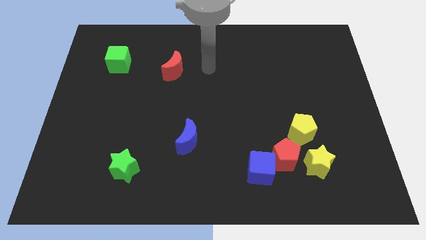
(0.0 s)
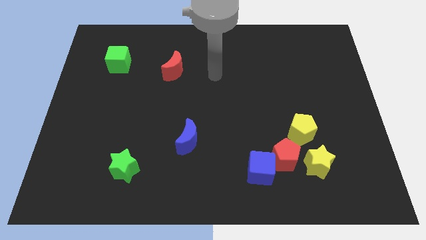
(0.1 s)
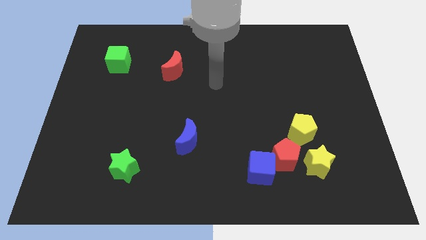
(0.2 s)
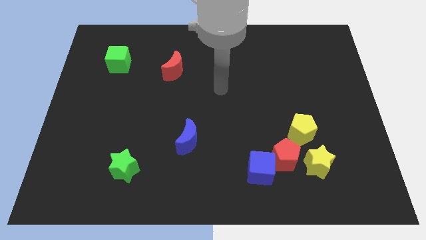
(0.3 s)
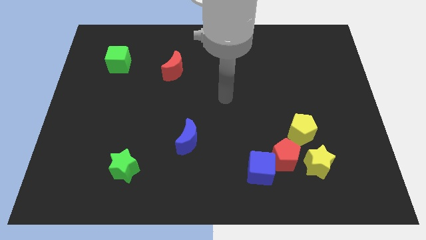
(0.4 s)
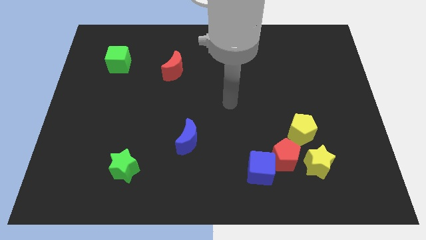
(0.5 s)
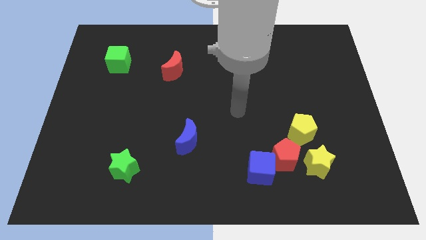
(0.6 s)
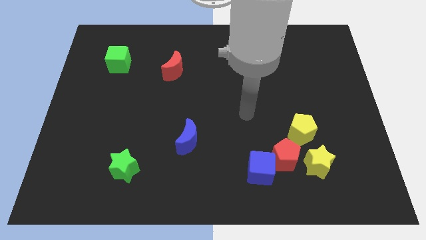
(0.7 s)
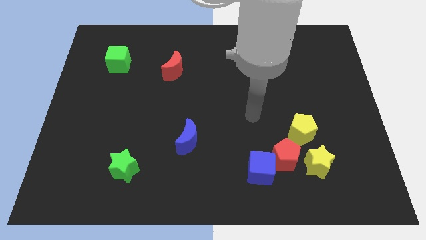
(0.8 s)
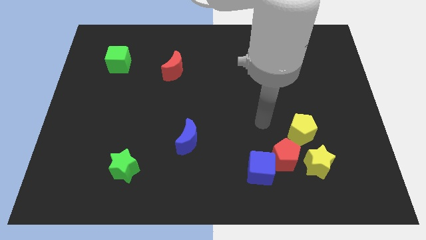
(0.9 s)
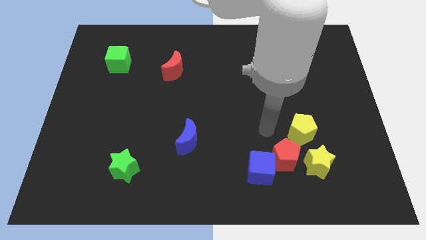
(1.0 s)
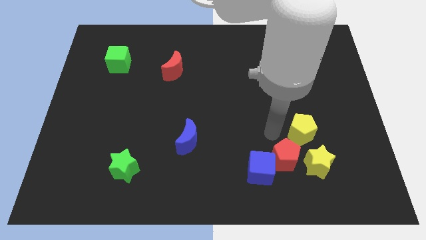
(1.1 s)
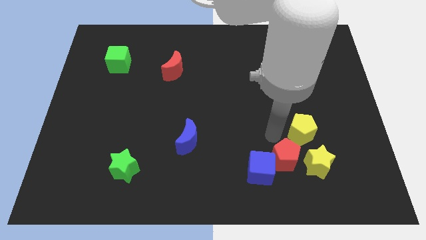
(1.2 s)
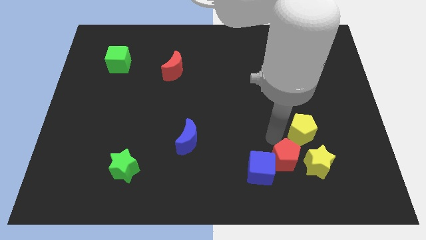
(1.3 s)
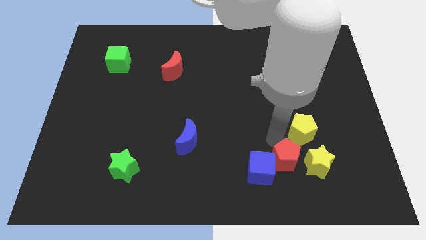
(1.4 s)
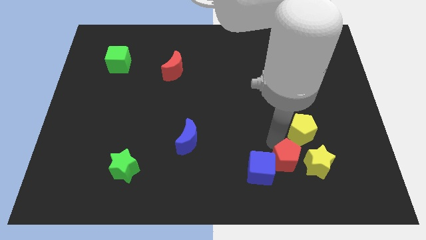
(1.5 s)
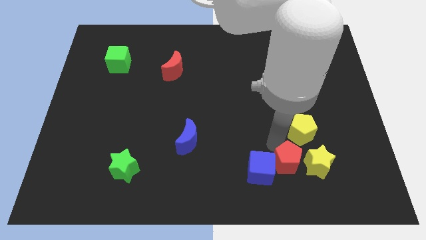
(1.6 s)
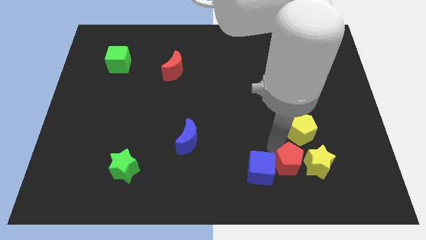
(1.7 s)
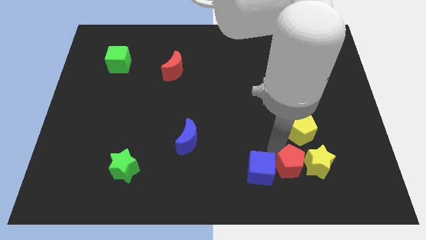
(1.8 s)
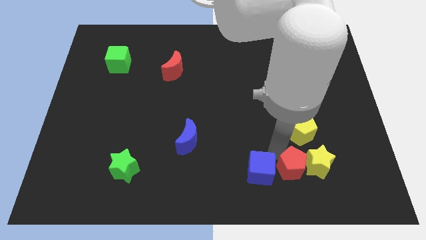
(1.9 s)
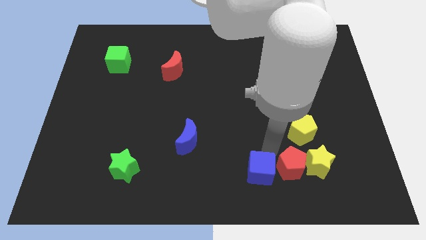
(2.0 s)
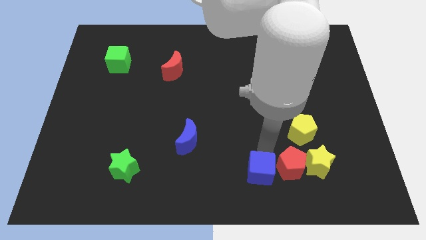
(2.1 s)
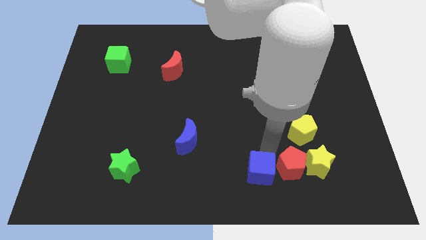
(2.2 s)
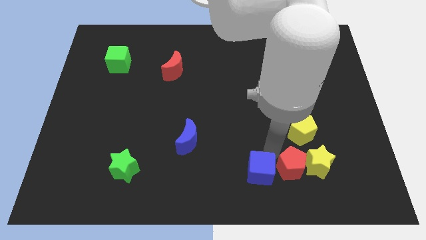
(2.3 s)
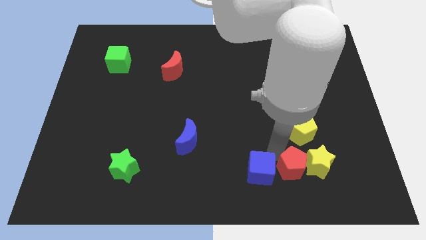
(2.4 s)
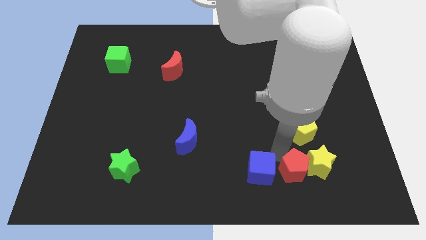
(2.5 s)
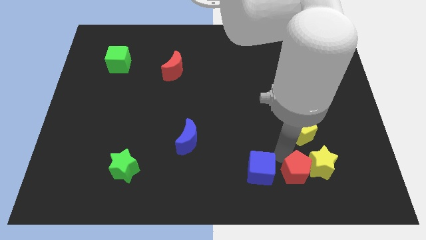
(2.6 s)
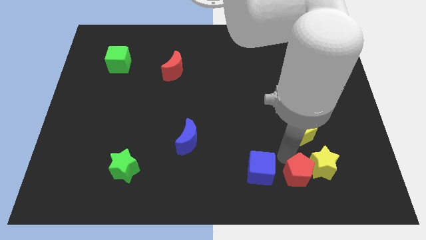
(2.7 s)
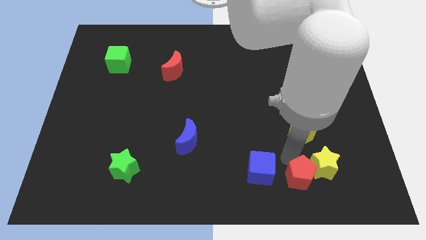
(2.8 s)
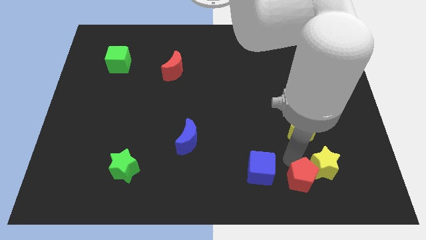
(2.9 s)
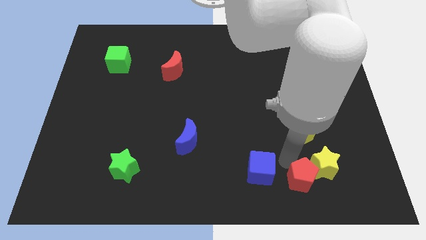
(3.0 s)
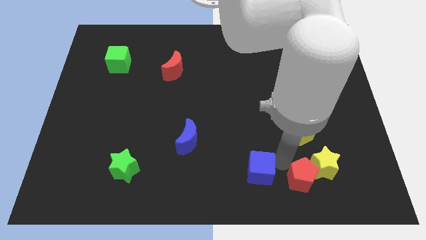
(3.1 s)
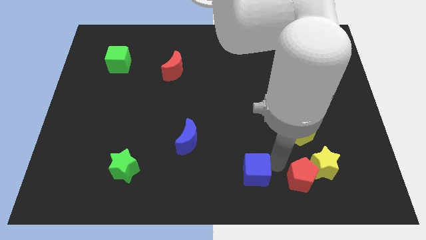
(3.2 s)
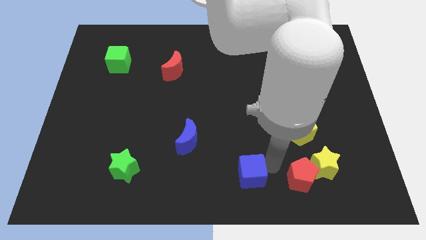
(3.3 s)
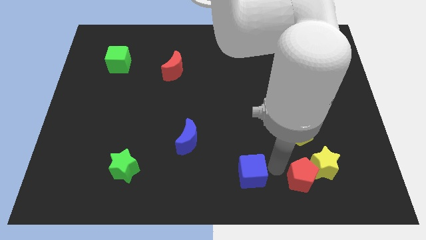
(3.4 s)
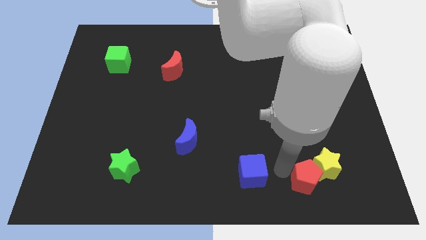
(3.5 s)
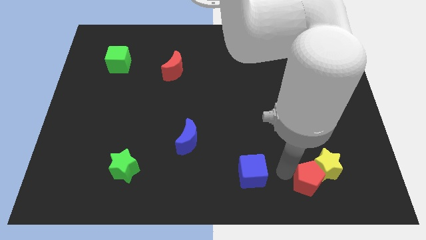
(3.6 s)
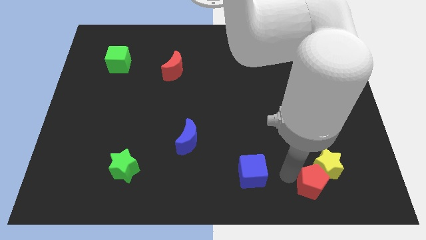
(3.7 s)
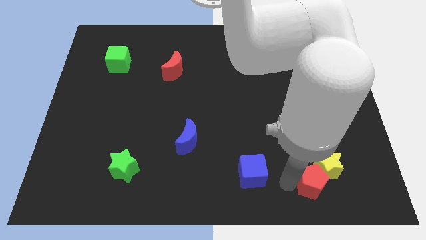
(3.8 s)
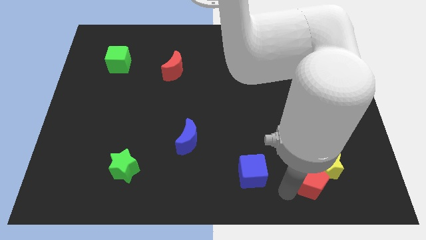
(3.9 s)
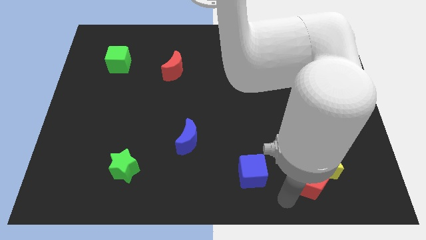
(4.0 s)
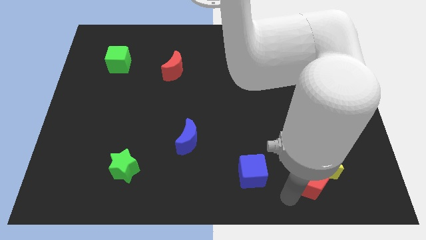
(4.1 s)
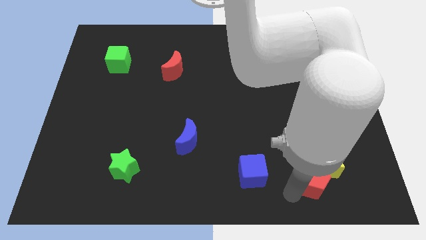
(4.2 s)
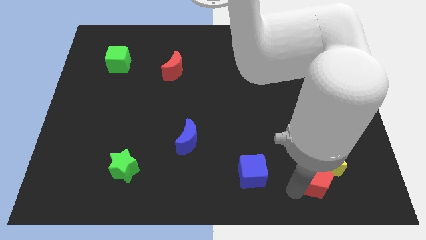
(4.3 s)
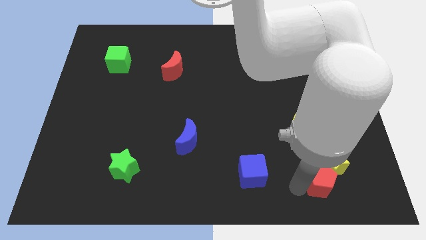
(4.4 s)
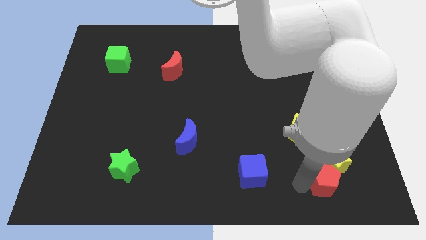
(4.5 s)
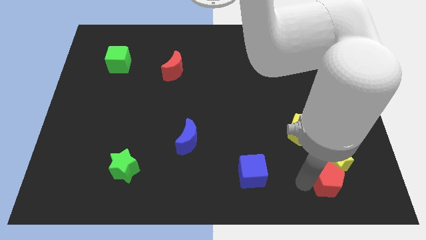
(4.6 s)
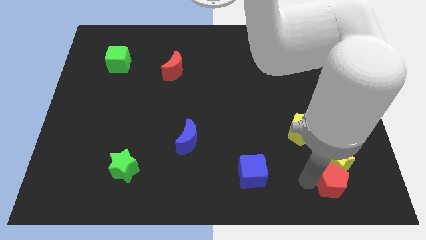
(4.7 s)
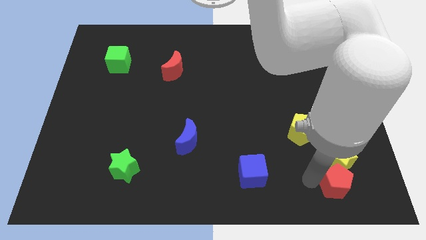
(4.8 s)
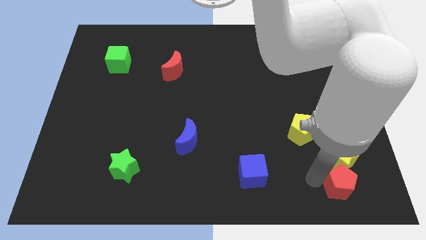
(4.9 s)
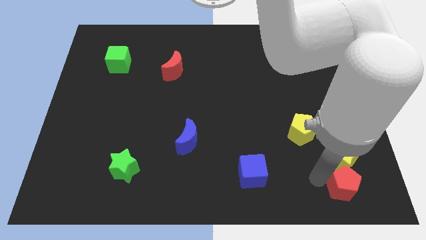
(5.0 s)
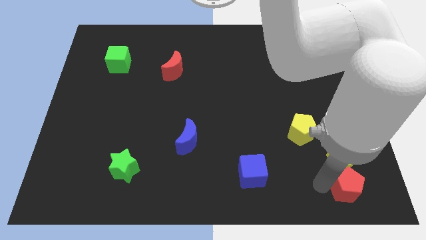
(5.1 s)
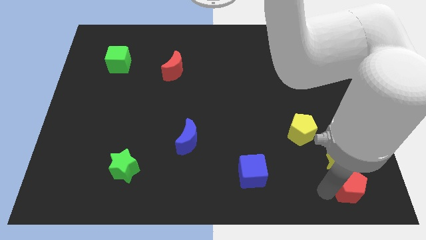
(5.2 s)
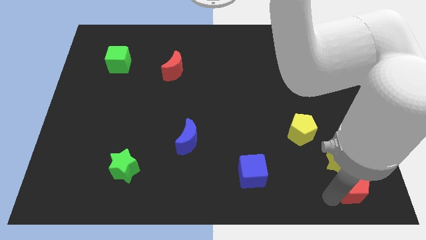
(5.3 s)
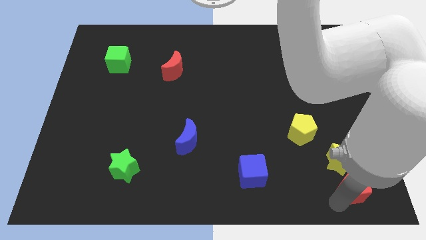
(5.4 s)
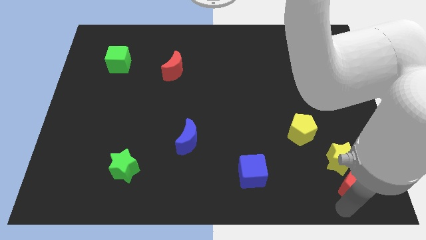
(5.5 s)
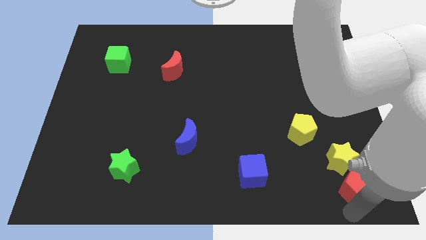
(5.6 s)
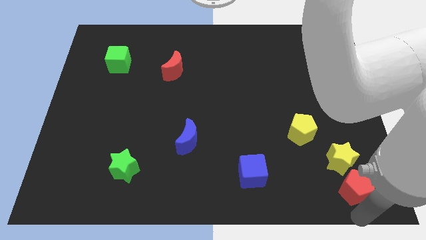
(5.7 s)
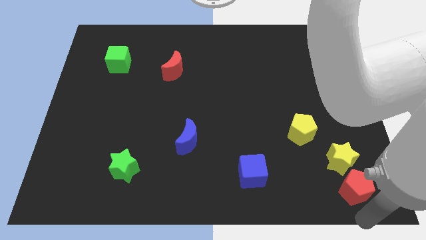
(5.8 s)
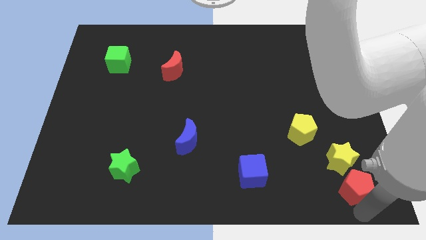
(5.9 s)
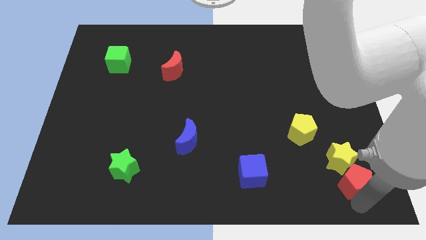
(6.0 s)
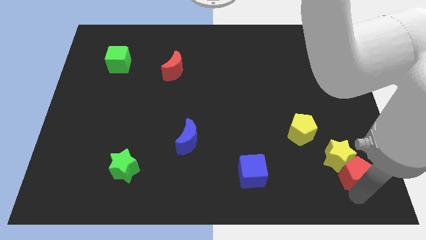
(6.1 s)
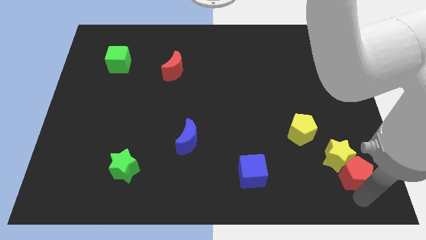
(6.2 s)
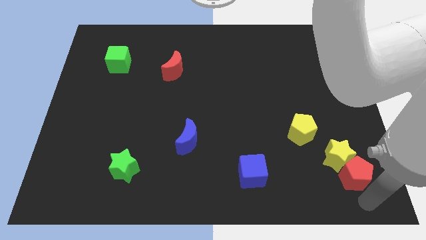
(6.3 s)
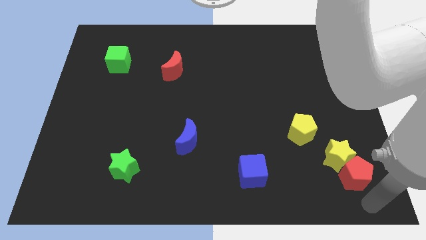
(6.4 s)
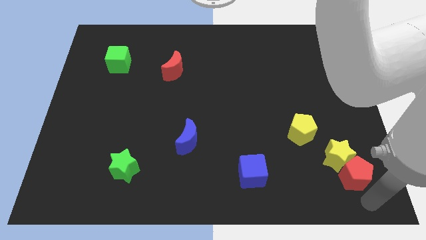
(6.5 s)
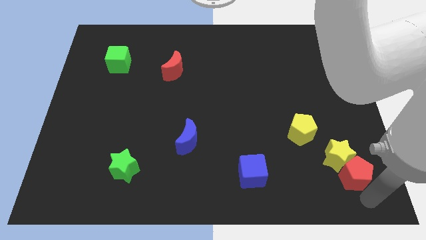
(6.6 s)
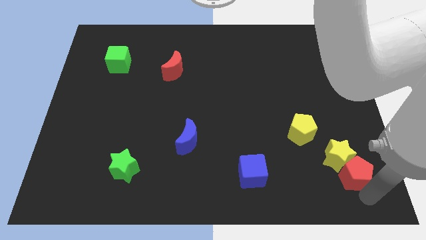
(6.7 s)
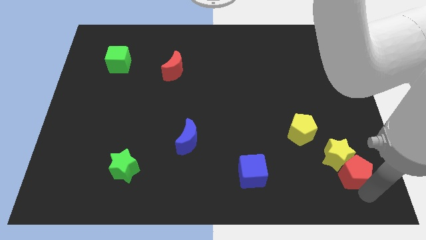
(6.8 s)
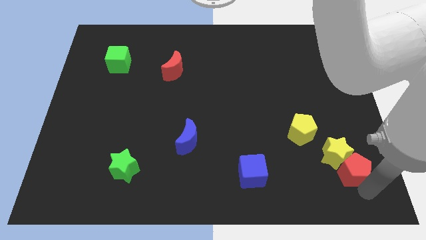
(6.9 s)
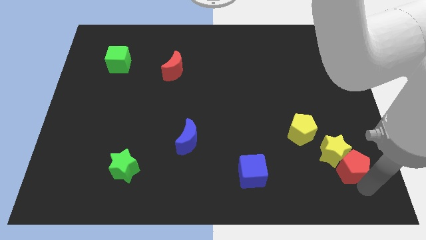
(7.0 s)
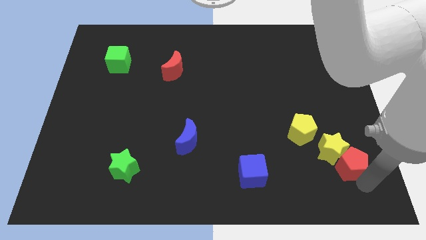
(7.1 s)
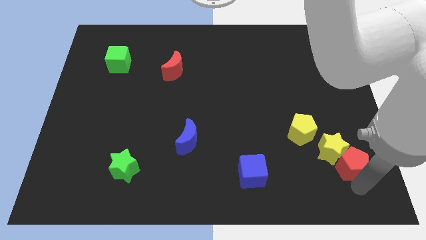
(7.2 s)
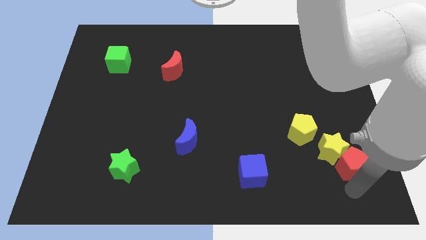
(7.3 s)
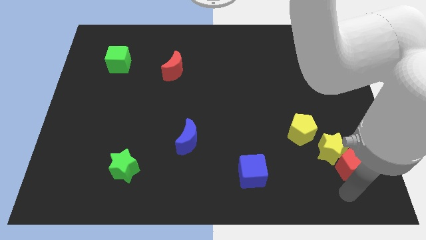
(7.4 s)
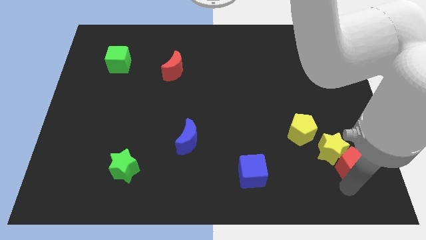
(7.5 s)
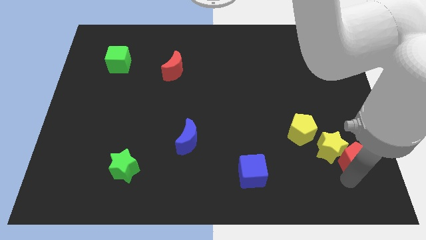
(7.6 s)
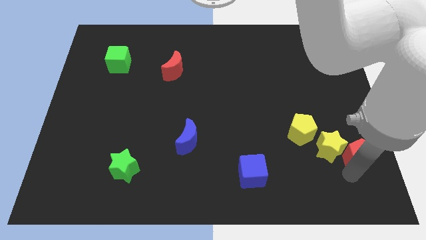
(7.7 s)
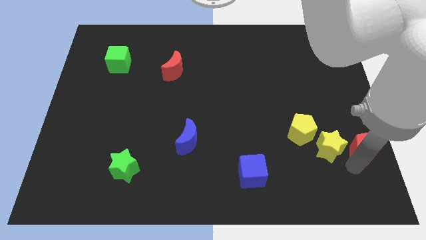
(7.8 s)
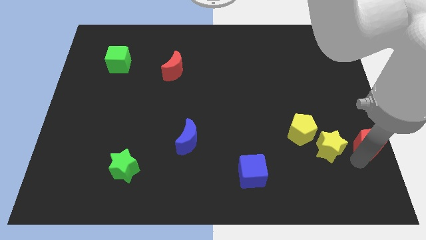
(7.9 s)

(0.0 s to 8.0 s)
put the red pentagon to the right side of the board
